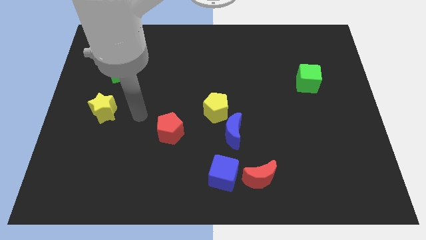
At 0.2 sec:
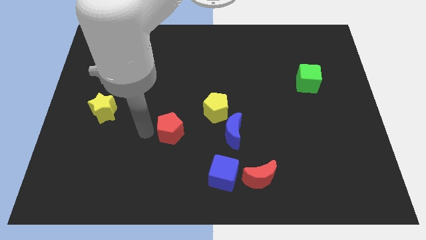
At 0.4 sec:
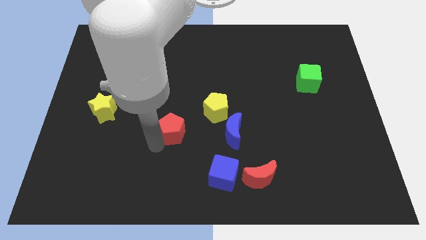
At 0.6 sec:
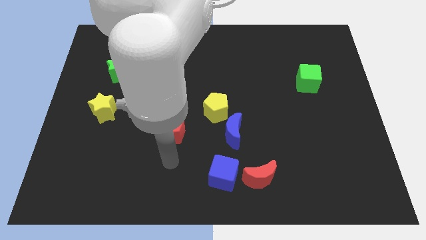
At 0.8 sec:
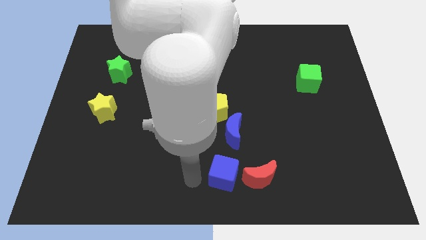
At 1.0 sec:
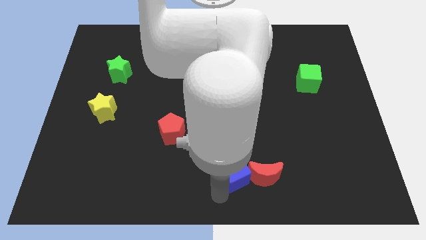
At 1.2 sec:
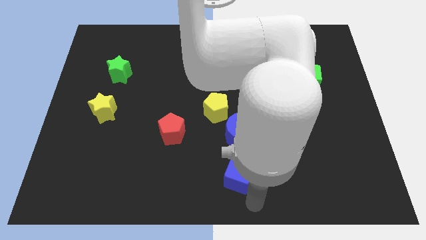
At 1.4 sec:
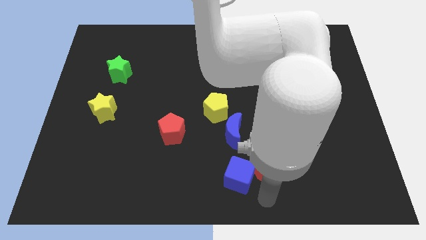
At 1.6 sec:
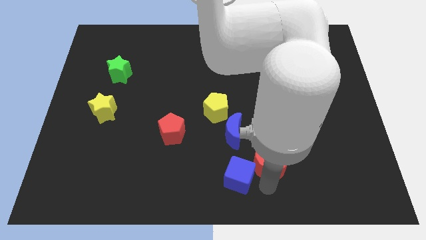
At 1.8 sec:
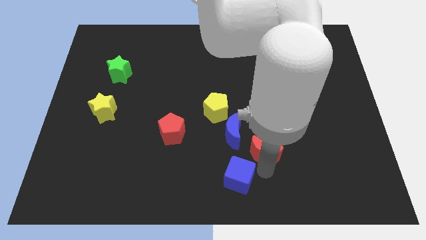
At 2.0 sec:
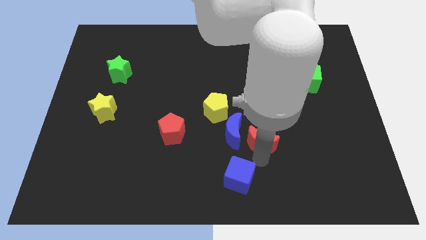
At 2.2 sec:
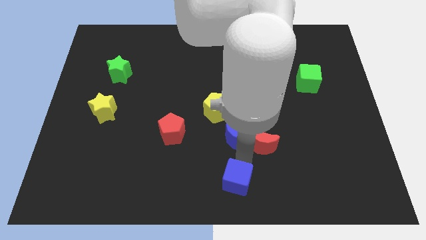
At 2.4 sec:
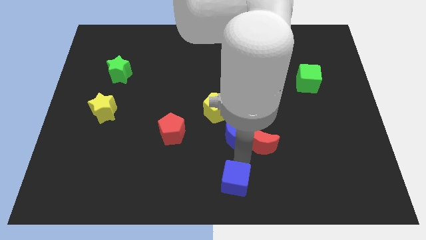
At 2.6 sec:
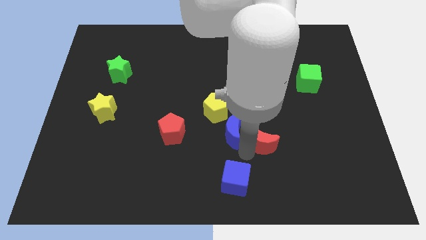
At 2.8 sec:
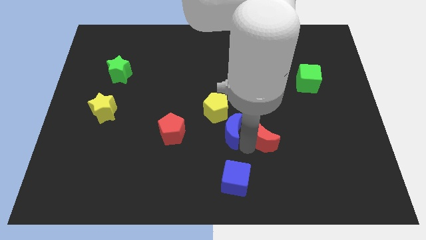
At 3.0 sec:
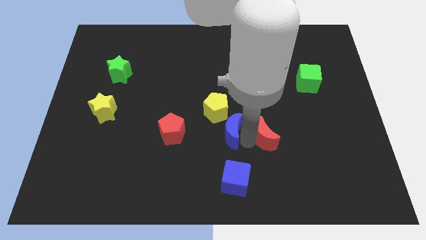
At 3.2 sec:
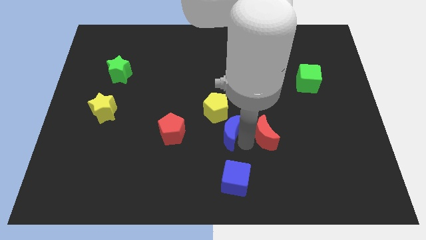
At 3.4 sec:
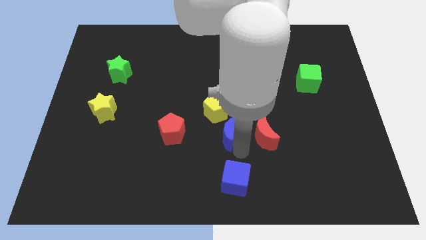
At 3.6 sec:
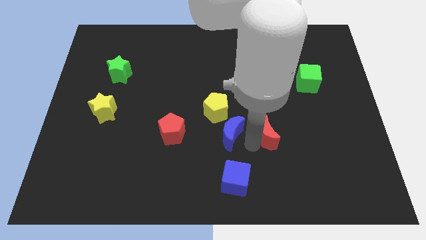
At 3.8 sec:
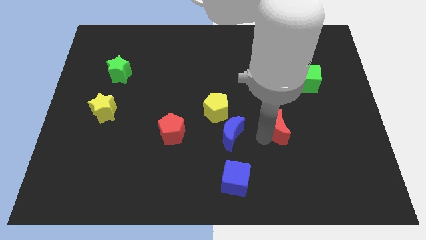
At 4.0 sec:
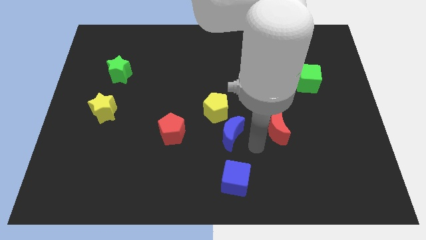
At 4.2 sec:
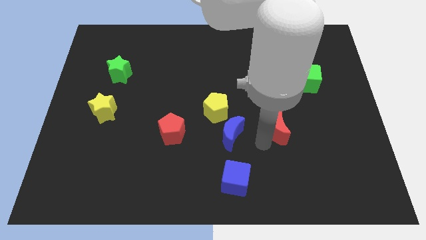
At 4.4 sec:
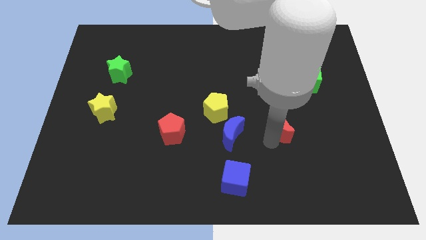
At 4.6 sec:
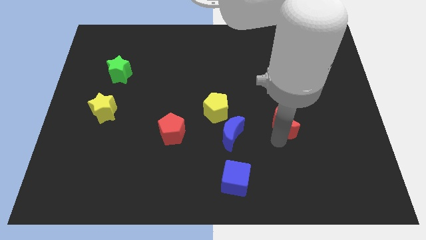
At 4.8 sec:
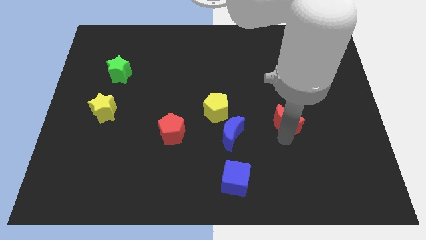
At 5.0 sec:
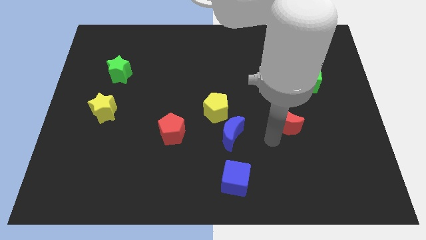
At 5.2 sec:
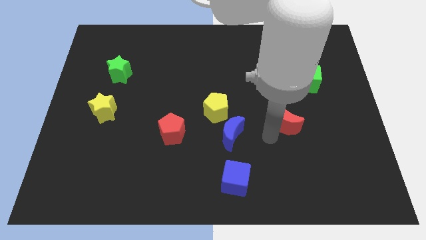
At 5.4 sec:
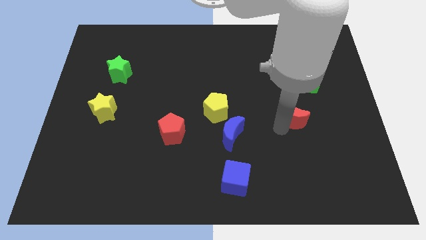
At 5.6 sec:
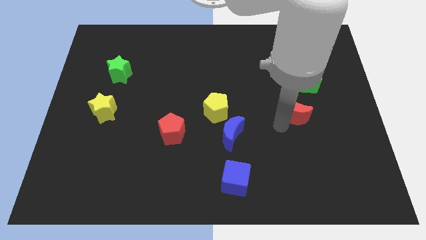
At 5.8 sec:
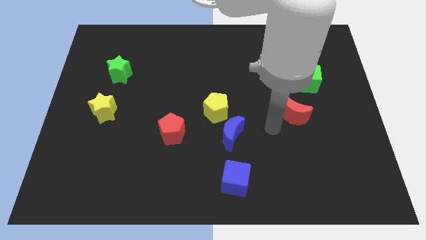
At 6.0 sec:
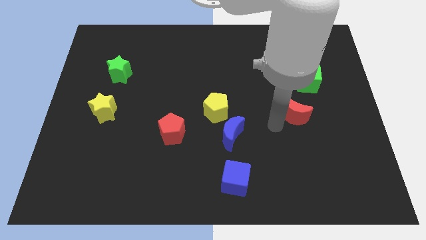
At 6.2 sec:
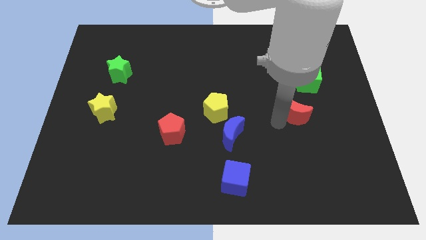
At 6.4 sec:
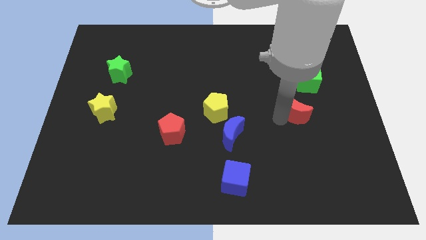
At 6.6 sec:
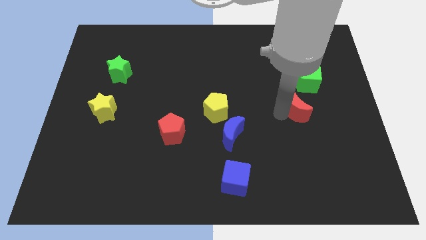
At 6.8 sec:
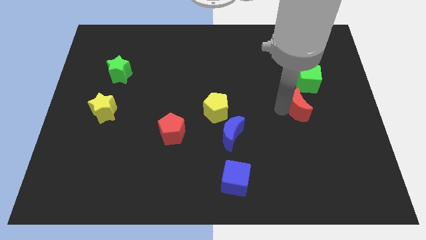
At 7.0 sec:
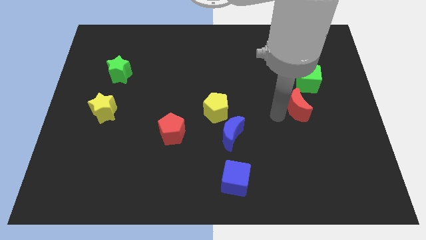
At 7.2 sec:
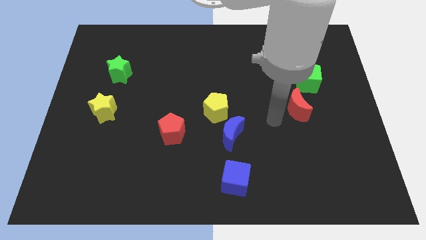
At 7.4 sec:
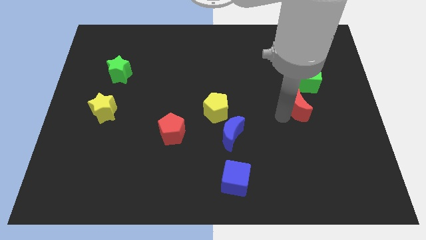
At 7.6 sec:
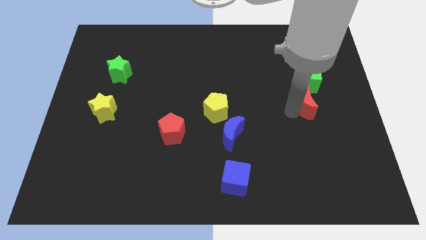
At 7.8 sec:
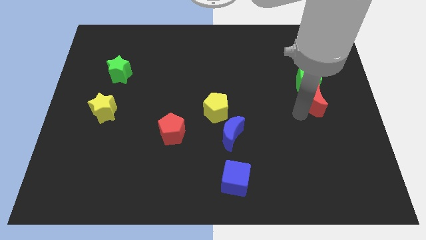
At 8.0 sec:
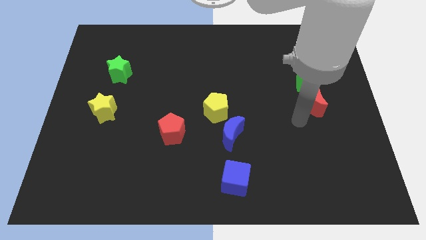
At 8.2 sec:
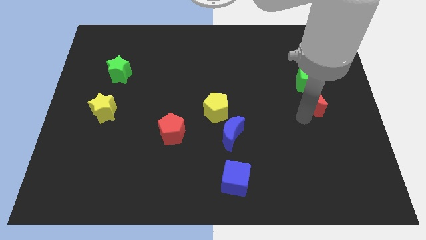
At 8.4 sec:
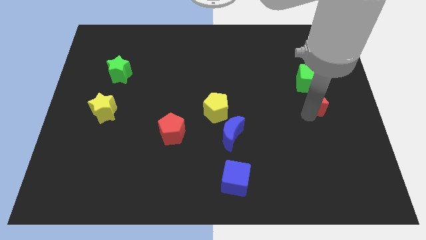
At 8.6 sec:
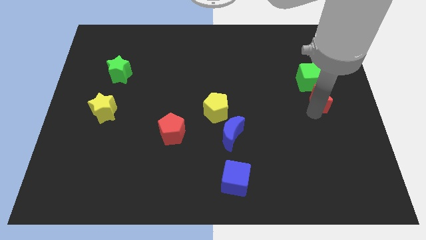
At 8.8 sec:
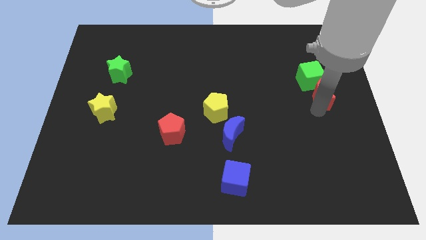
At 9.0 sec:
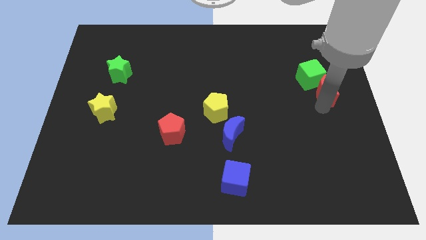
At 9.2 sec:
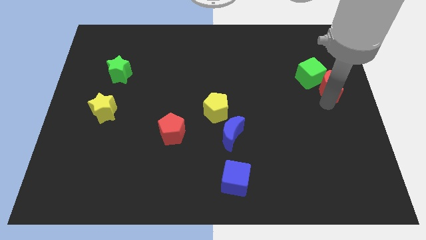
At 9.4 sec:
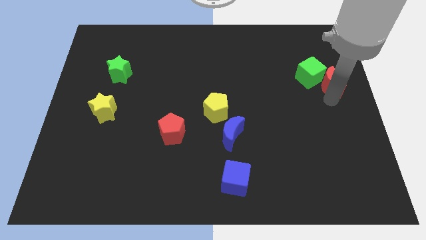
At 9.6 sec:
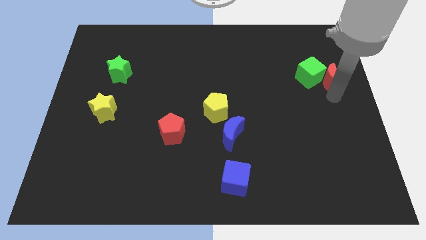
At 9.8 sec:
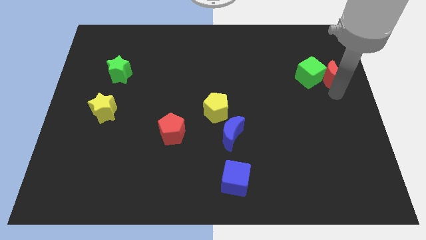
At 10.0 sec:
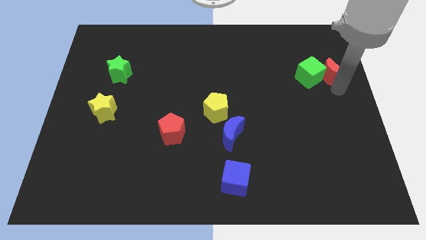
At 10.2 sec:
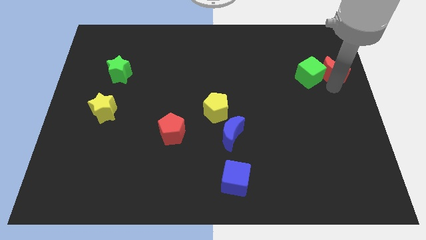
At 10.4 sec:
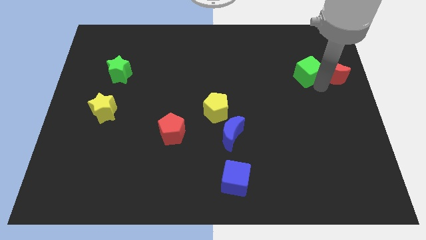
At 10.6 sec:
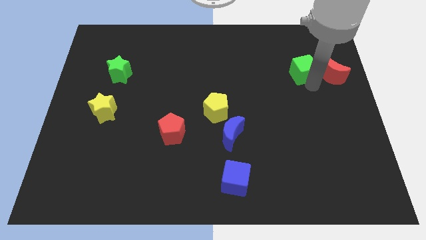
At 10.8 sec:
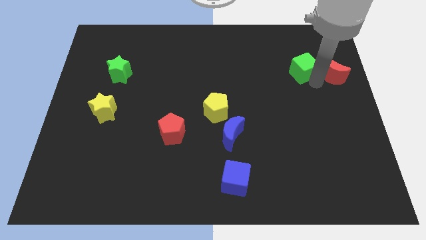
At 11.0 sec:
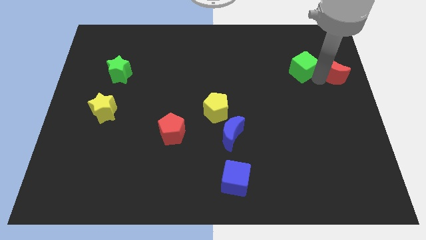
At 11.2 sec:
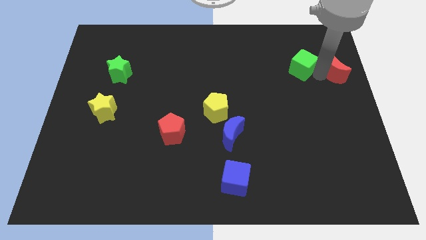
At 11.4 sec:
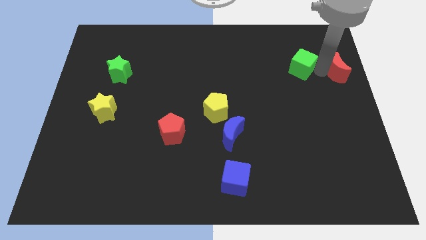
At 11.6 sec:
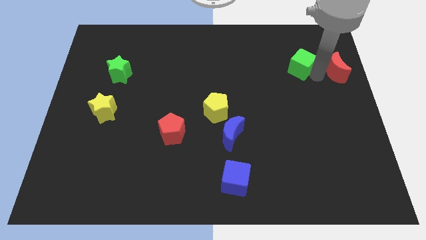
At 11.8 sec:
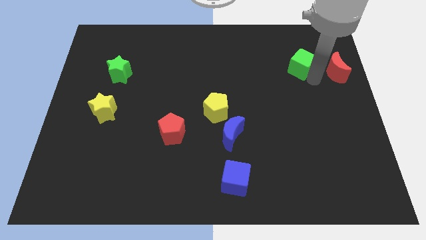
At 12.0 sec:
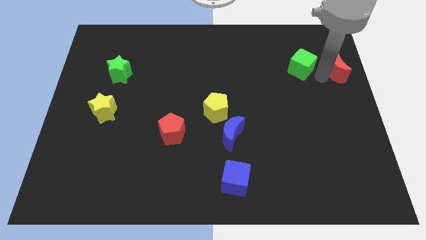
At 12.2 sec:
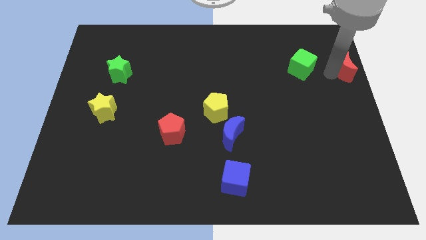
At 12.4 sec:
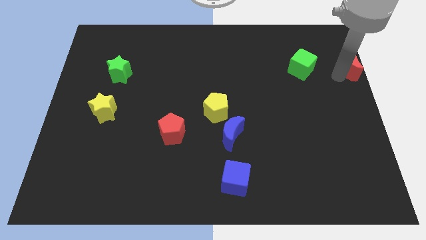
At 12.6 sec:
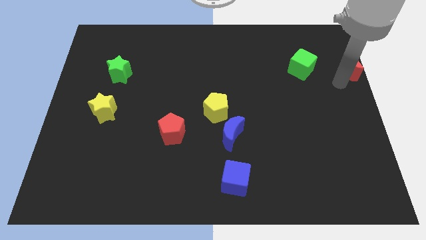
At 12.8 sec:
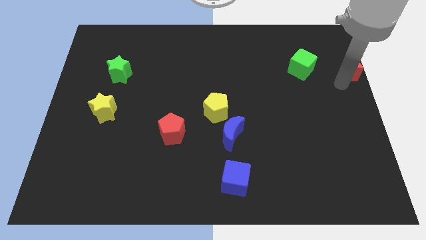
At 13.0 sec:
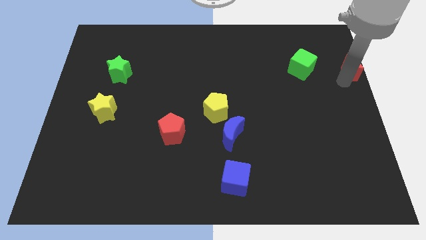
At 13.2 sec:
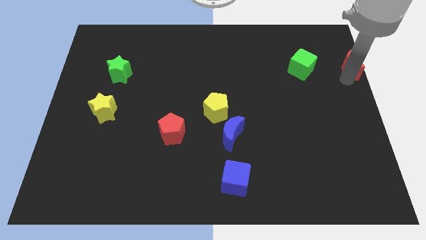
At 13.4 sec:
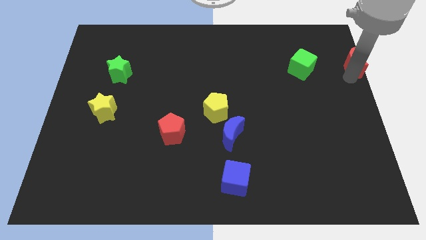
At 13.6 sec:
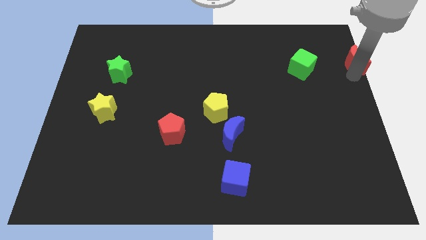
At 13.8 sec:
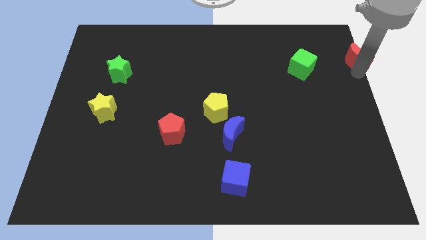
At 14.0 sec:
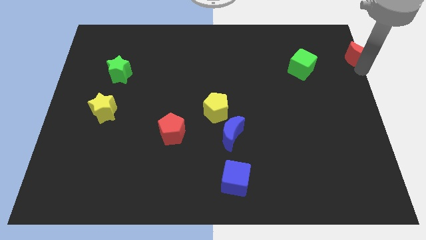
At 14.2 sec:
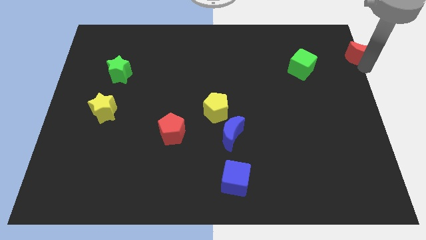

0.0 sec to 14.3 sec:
push the red moon to the top right
